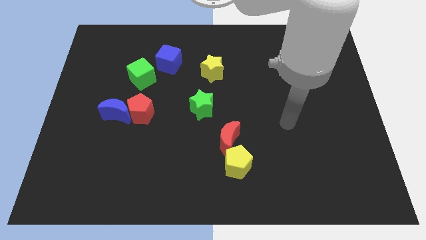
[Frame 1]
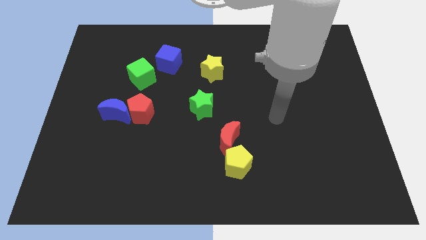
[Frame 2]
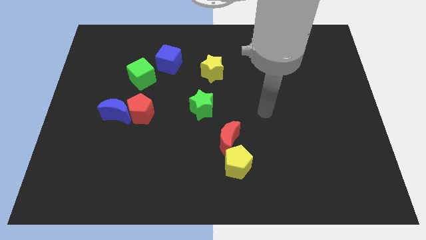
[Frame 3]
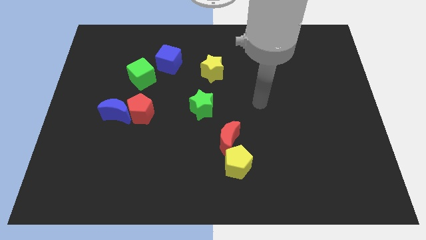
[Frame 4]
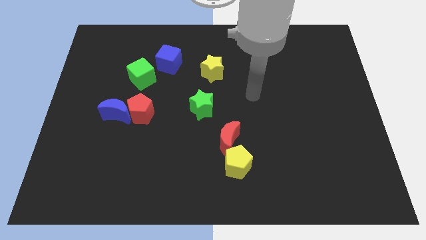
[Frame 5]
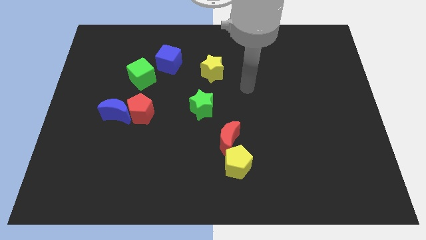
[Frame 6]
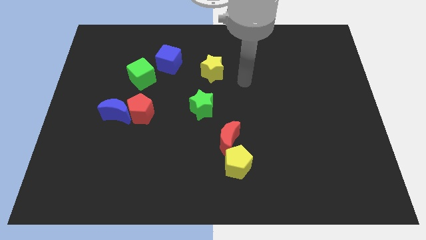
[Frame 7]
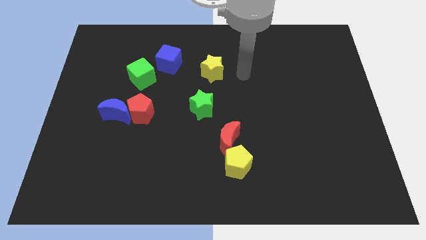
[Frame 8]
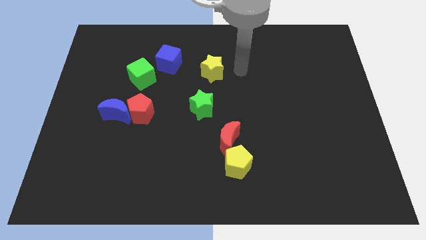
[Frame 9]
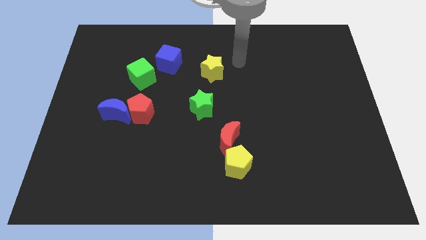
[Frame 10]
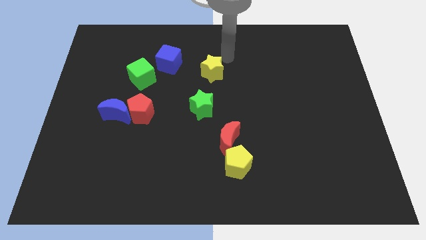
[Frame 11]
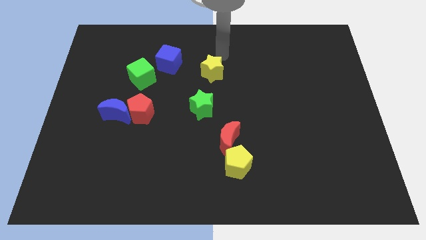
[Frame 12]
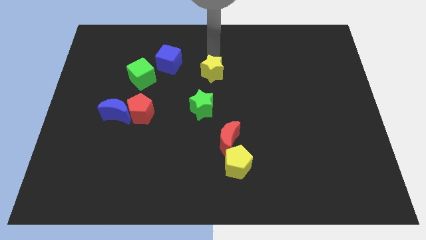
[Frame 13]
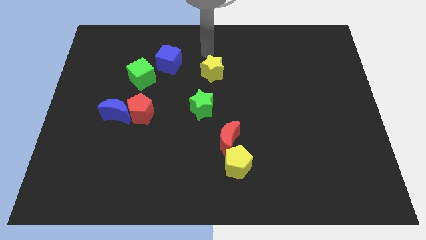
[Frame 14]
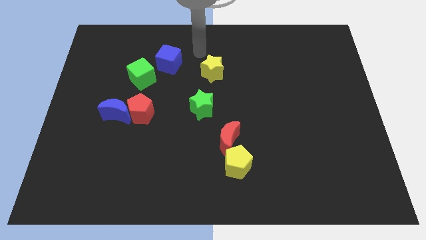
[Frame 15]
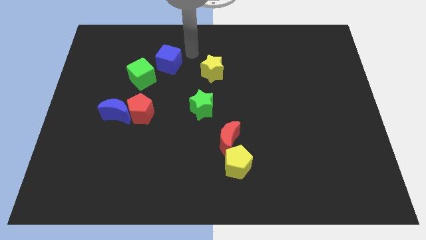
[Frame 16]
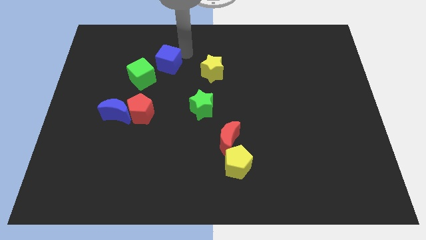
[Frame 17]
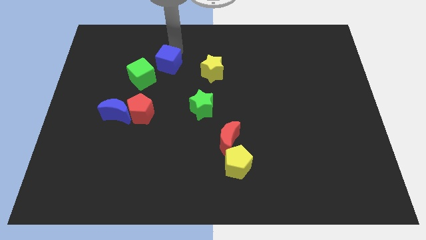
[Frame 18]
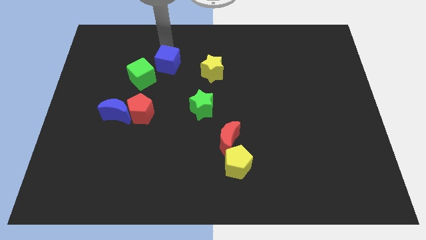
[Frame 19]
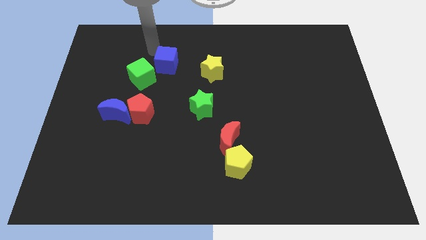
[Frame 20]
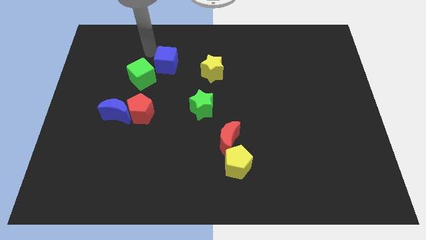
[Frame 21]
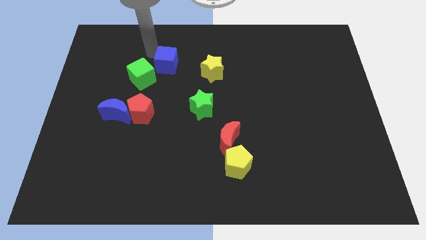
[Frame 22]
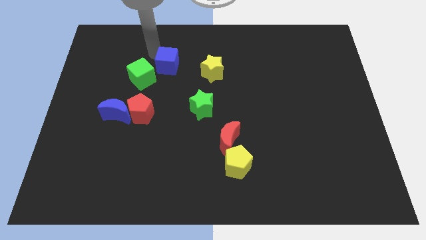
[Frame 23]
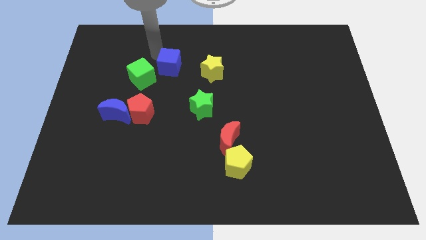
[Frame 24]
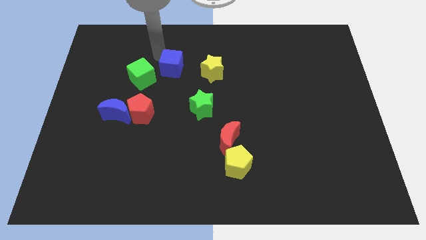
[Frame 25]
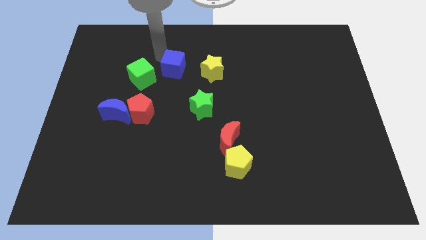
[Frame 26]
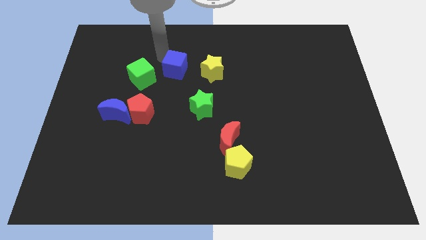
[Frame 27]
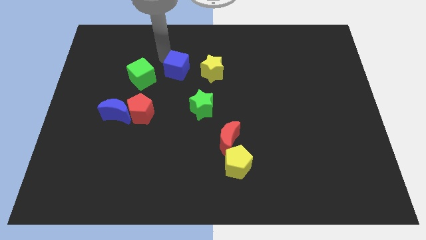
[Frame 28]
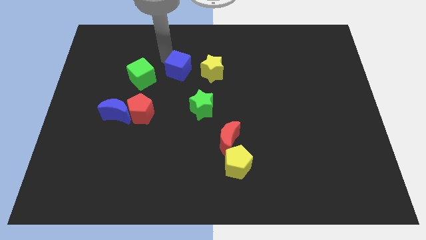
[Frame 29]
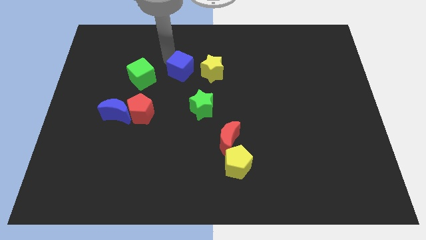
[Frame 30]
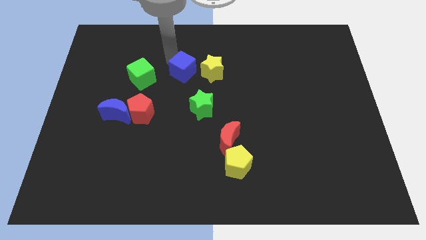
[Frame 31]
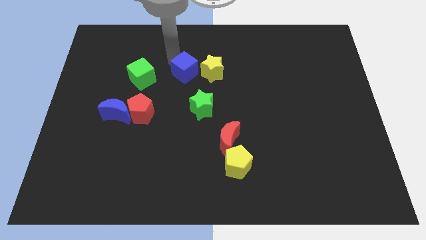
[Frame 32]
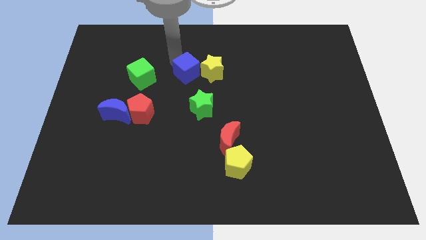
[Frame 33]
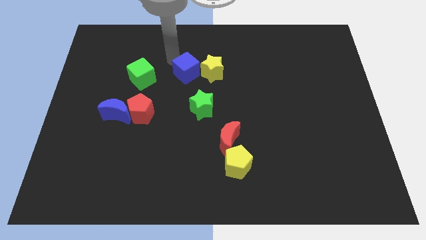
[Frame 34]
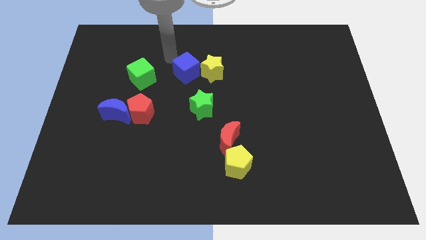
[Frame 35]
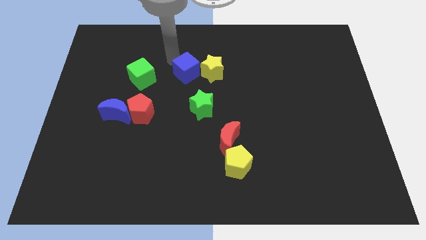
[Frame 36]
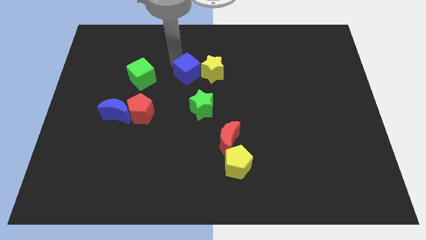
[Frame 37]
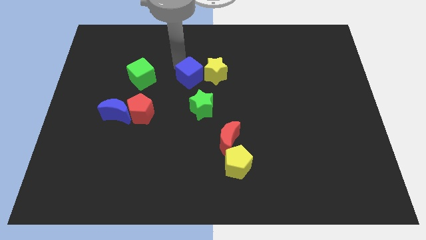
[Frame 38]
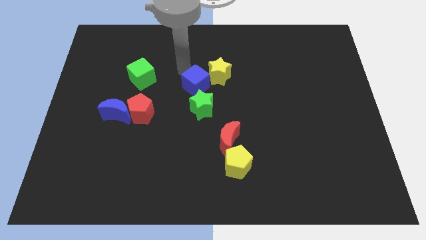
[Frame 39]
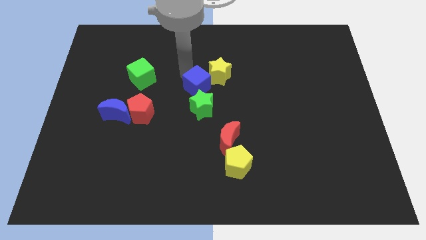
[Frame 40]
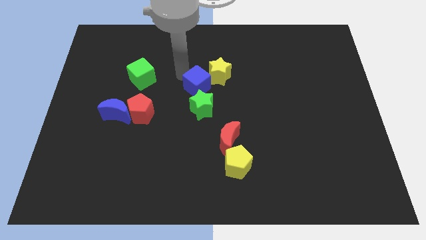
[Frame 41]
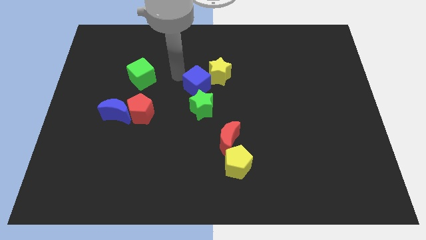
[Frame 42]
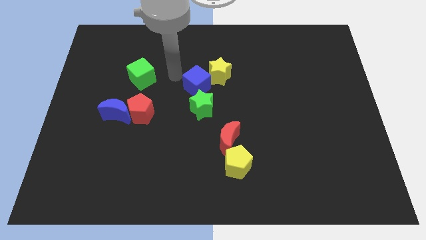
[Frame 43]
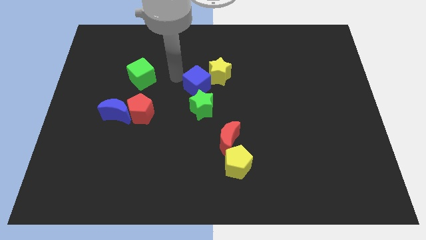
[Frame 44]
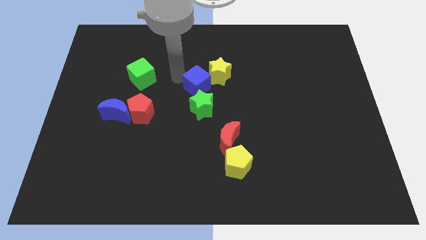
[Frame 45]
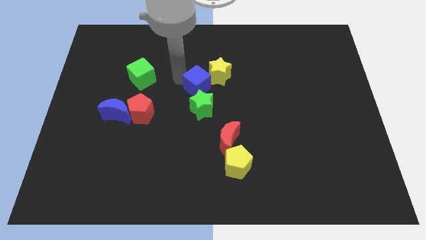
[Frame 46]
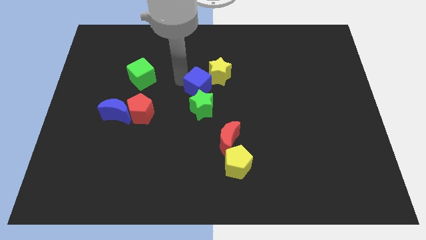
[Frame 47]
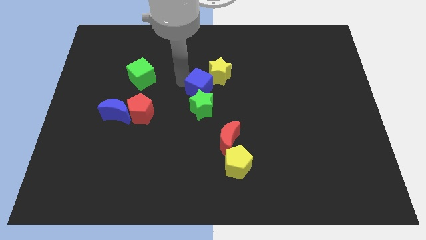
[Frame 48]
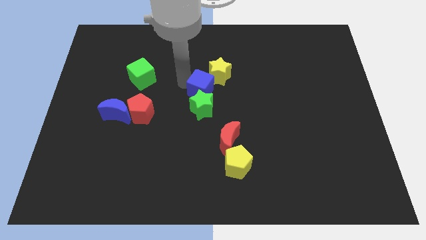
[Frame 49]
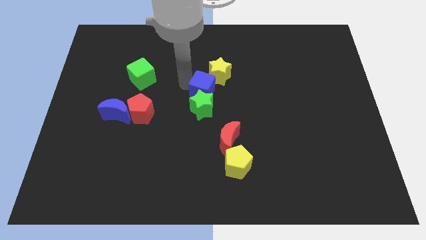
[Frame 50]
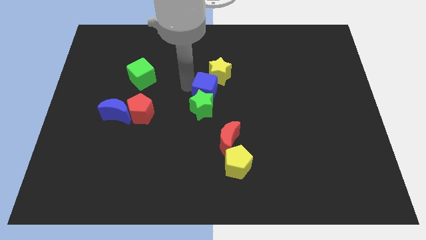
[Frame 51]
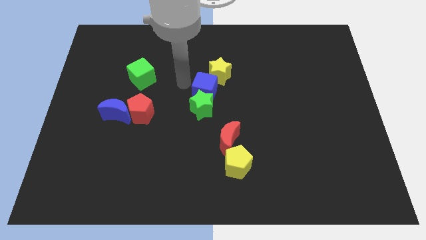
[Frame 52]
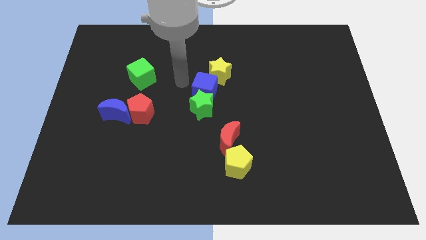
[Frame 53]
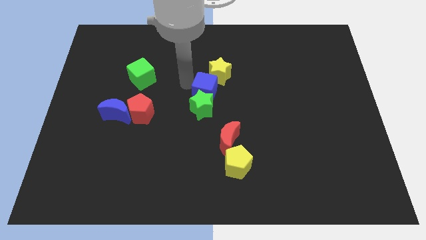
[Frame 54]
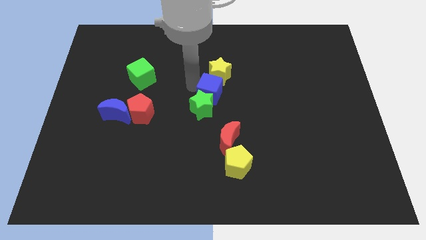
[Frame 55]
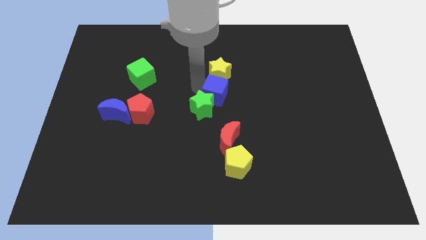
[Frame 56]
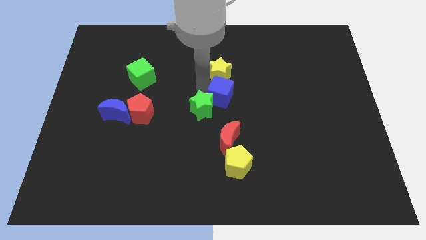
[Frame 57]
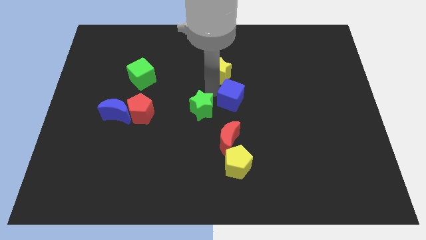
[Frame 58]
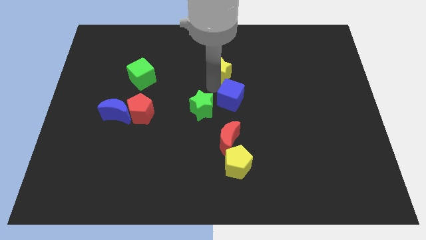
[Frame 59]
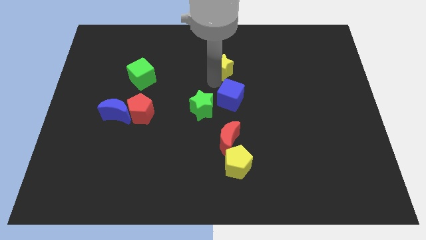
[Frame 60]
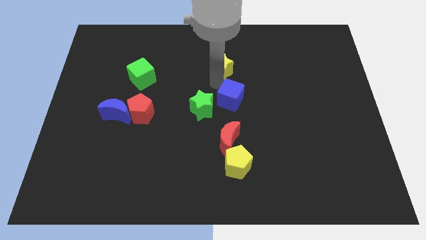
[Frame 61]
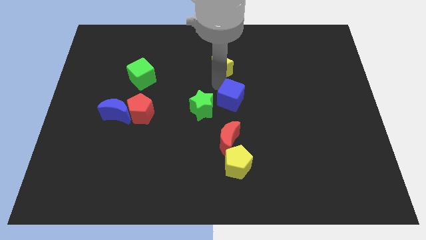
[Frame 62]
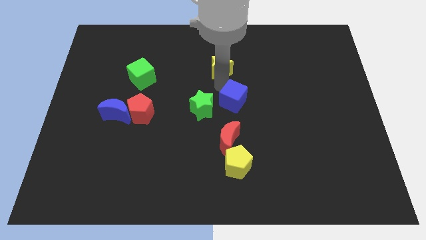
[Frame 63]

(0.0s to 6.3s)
slide the blue cube down and then right

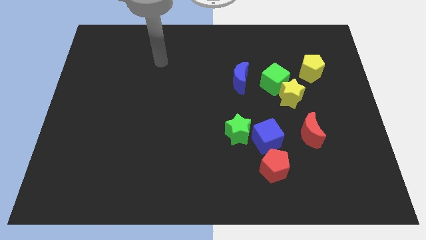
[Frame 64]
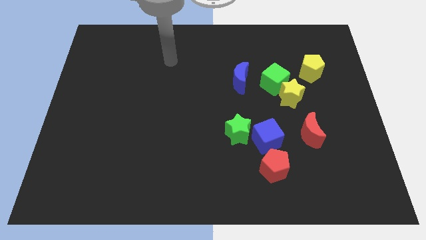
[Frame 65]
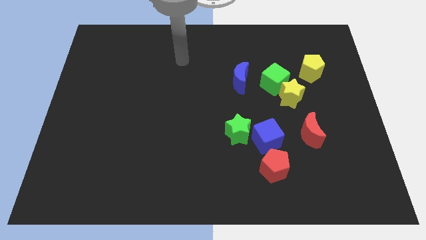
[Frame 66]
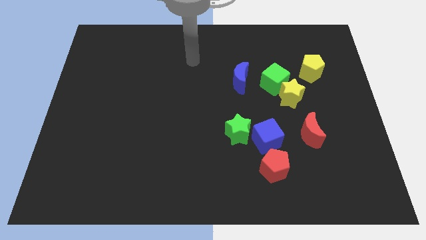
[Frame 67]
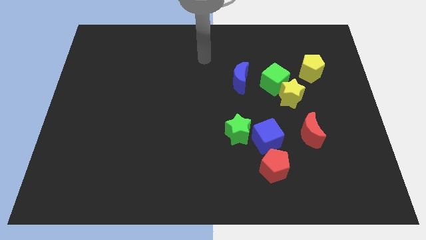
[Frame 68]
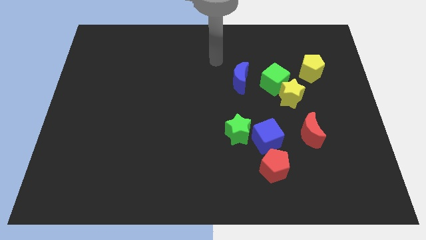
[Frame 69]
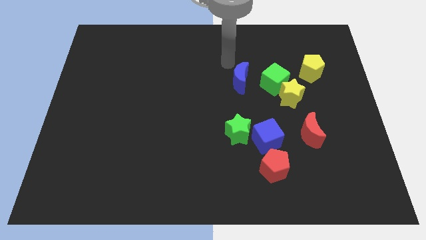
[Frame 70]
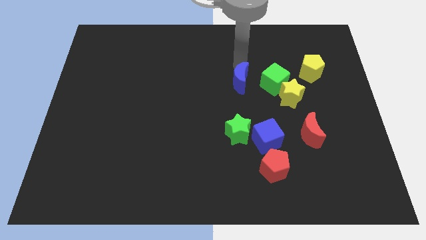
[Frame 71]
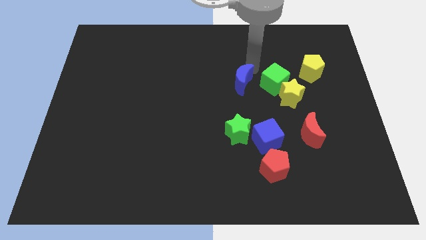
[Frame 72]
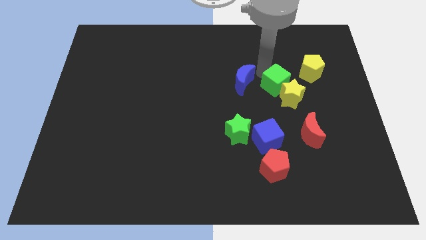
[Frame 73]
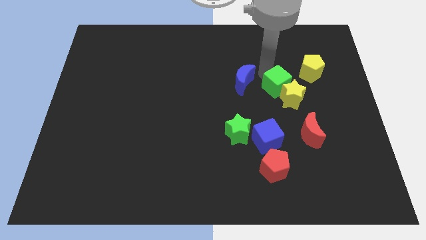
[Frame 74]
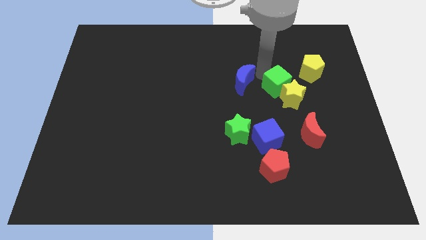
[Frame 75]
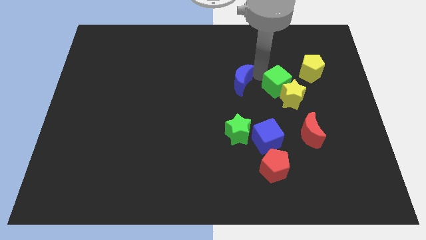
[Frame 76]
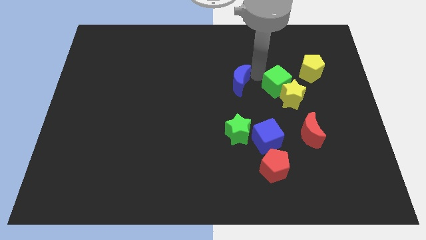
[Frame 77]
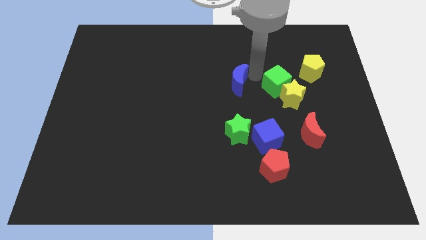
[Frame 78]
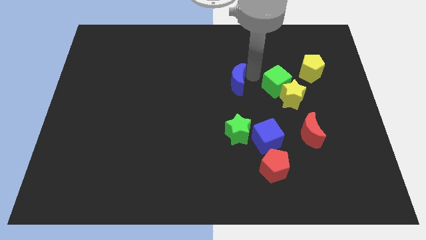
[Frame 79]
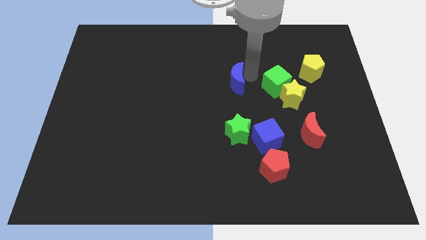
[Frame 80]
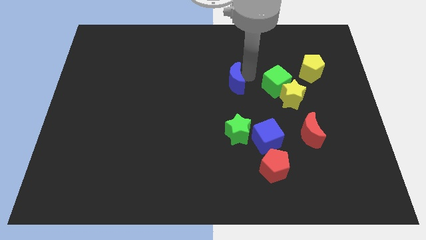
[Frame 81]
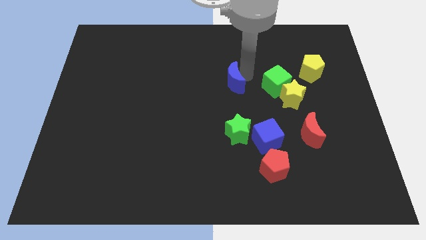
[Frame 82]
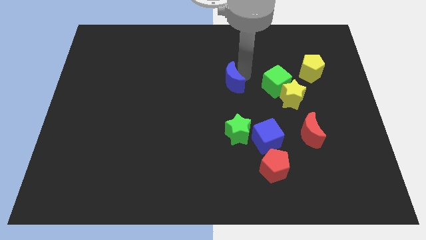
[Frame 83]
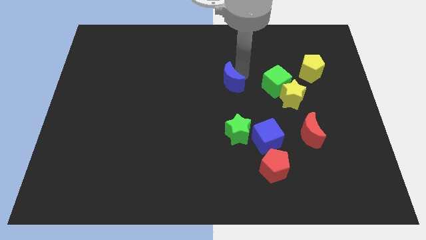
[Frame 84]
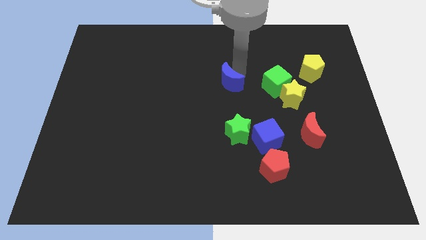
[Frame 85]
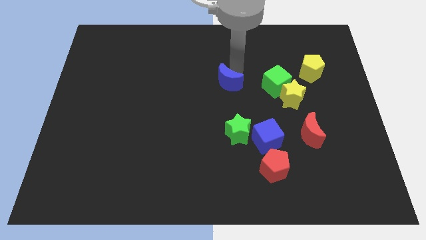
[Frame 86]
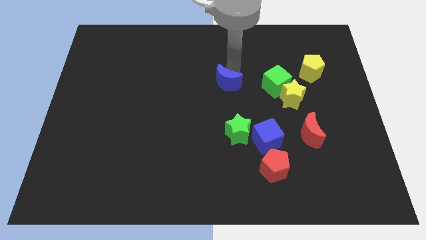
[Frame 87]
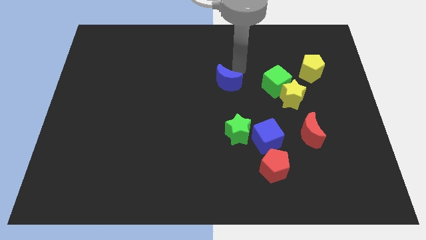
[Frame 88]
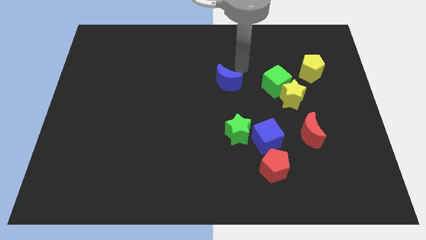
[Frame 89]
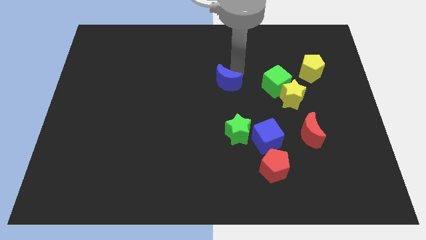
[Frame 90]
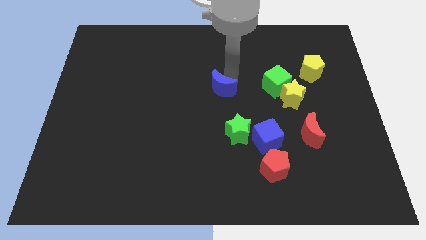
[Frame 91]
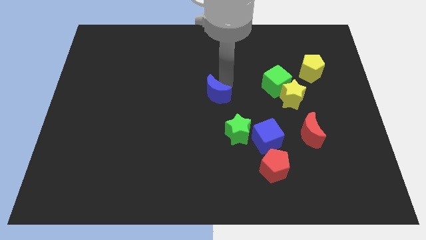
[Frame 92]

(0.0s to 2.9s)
slightly slide the blue moon down and left
